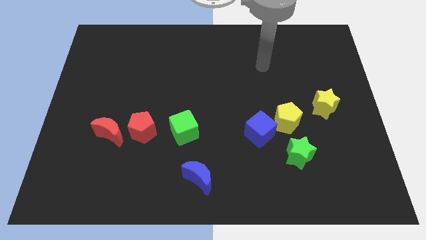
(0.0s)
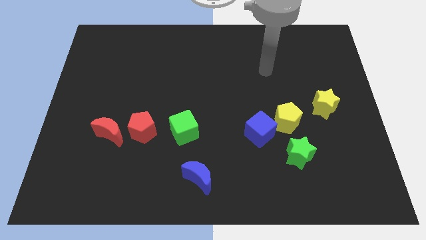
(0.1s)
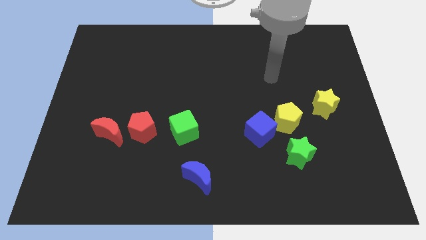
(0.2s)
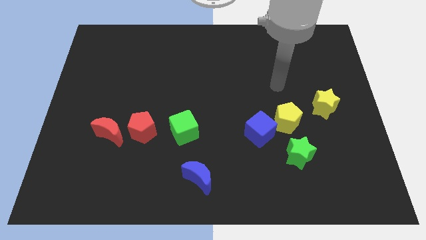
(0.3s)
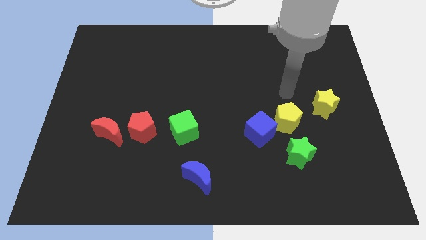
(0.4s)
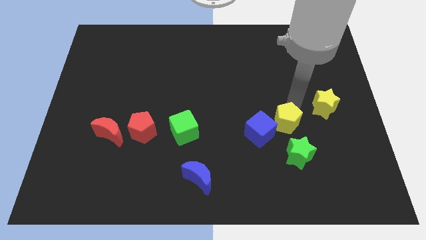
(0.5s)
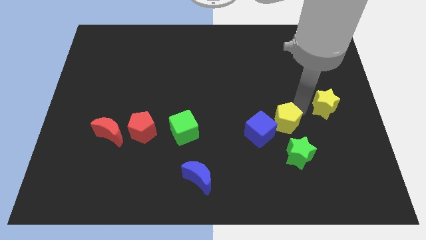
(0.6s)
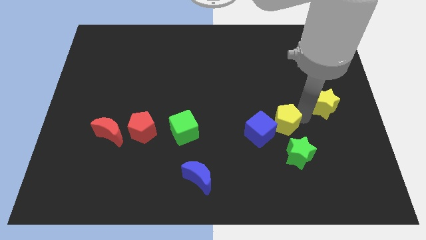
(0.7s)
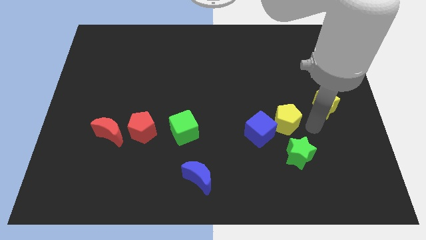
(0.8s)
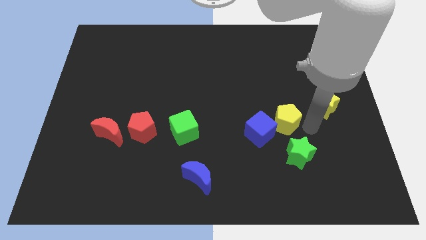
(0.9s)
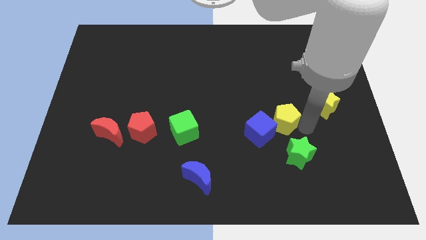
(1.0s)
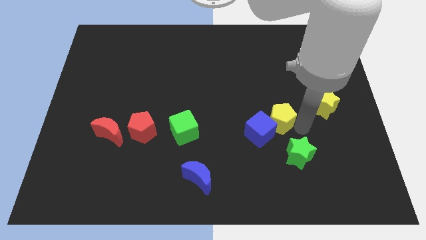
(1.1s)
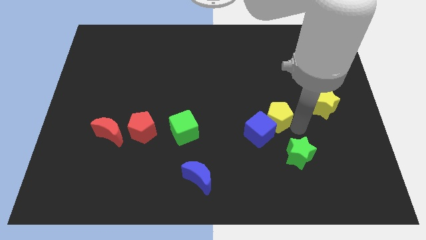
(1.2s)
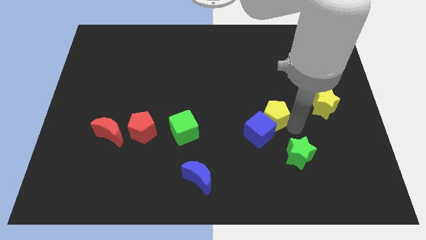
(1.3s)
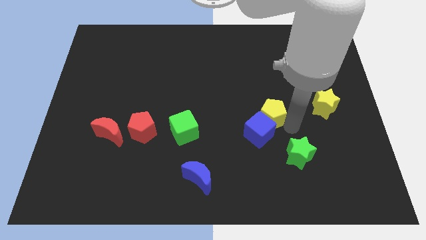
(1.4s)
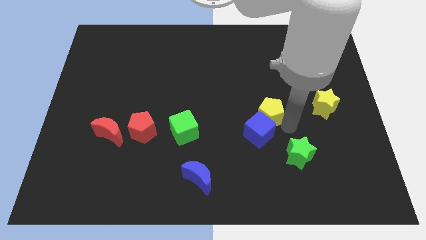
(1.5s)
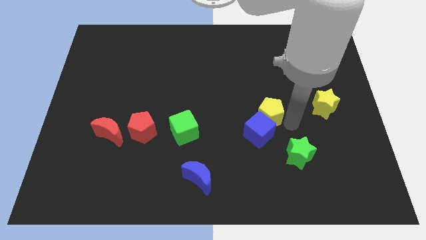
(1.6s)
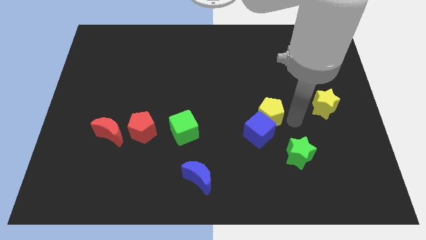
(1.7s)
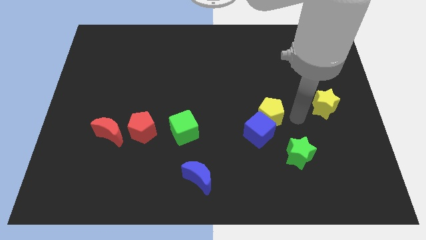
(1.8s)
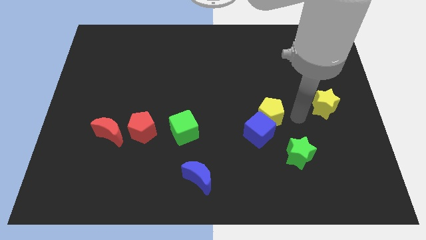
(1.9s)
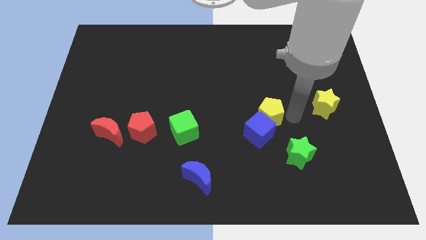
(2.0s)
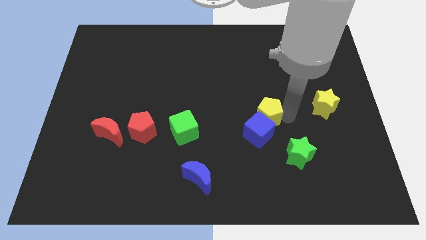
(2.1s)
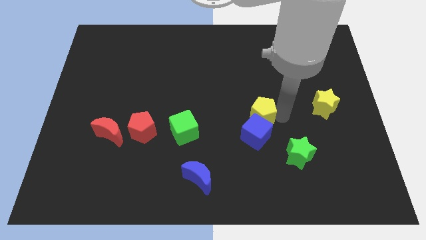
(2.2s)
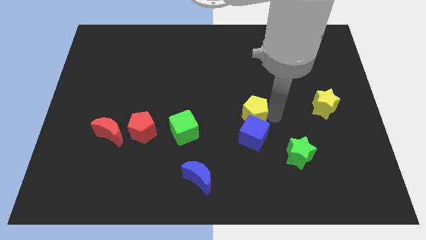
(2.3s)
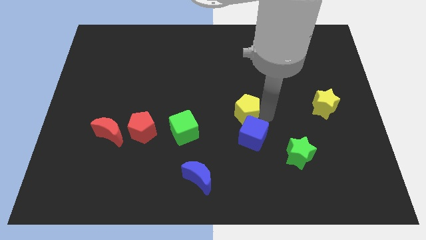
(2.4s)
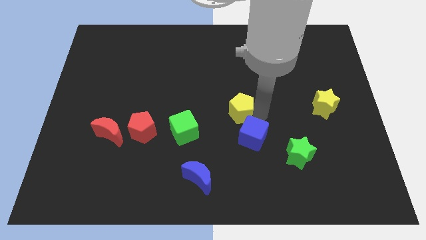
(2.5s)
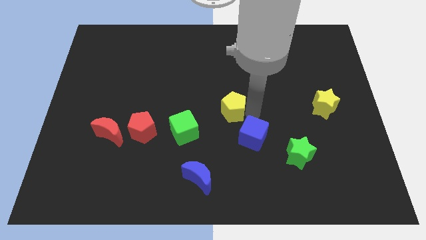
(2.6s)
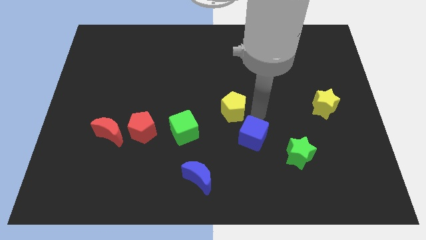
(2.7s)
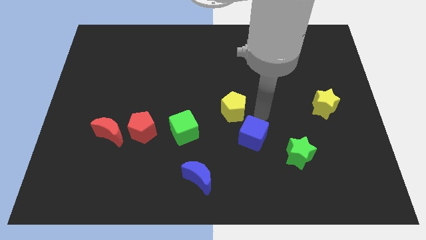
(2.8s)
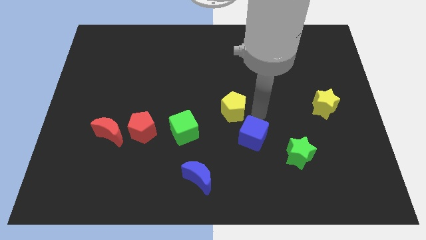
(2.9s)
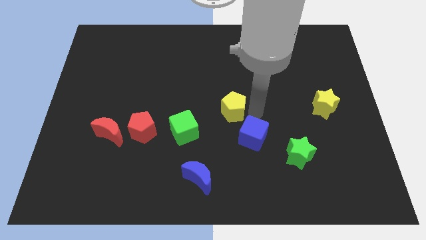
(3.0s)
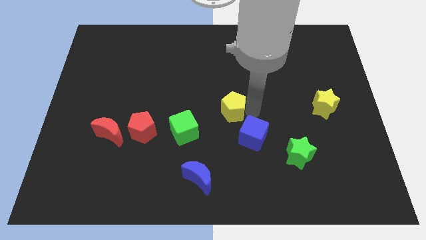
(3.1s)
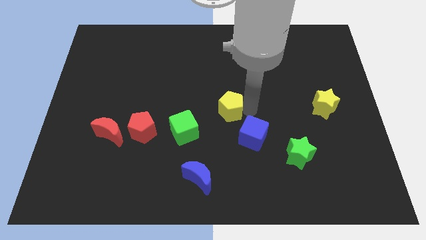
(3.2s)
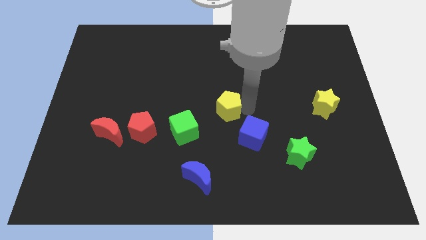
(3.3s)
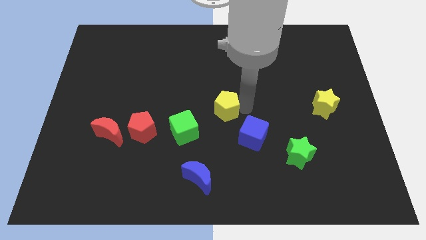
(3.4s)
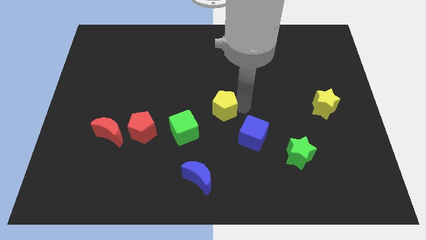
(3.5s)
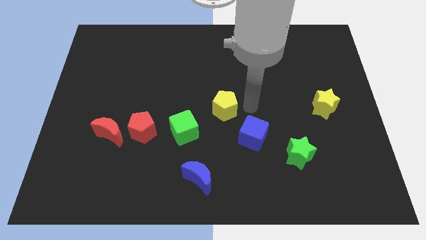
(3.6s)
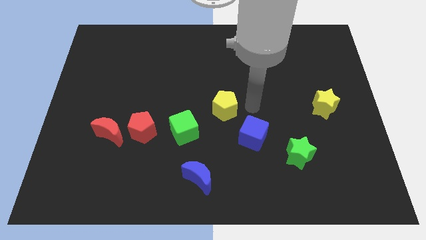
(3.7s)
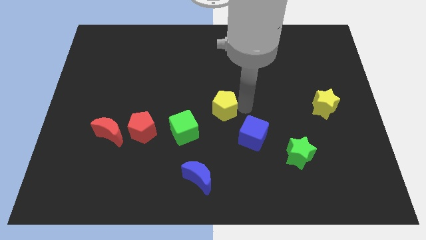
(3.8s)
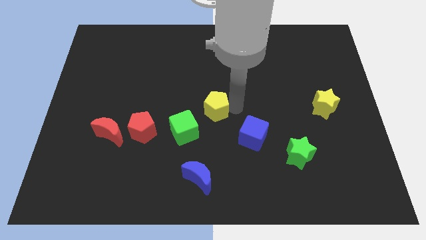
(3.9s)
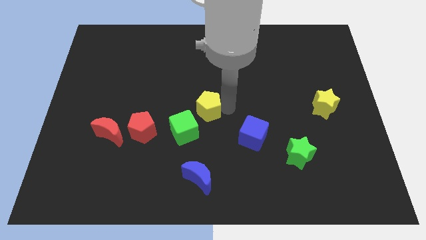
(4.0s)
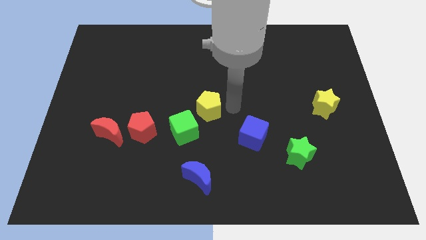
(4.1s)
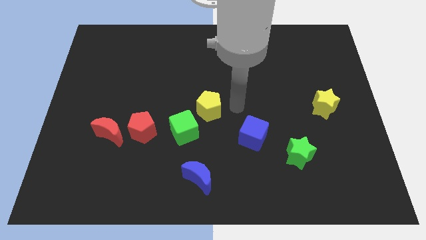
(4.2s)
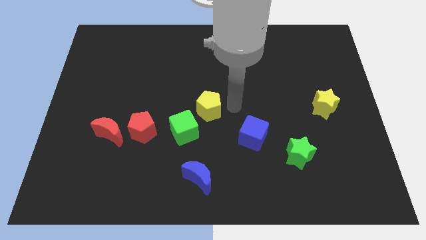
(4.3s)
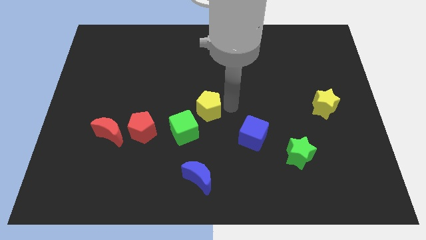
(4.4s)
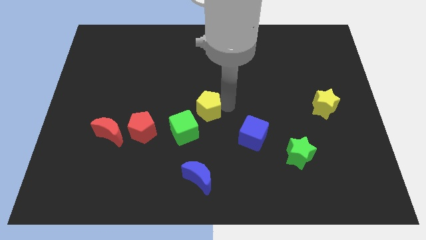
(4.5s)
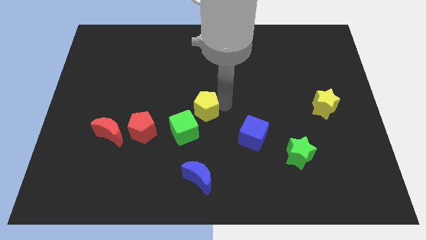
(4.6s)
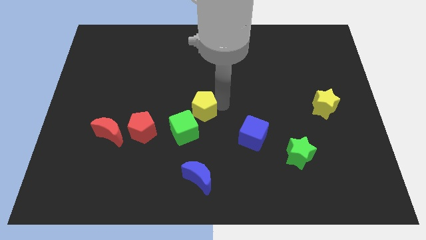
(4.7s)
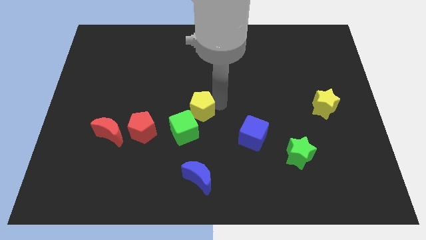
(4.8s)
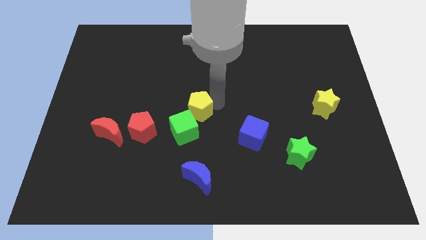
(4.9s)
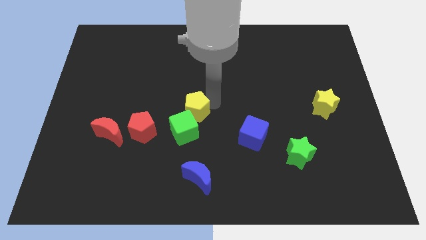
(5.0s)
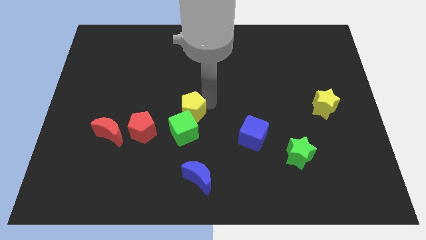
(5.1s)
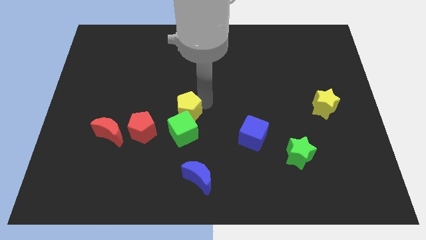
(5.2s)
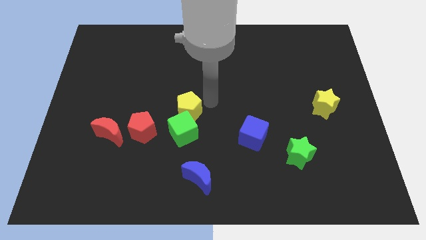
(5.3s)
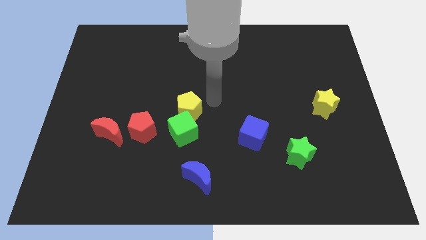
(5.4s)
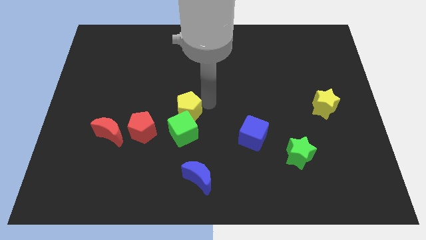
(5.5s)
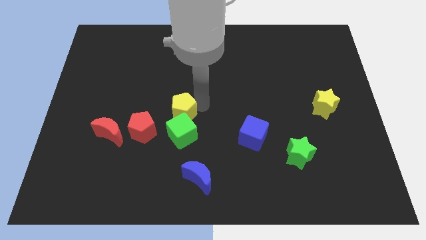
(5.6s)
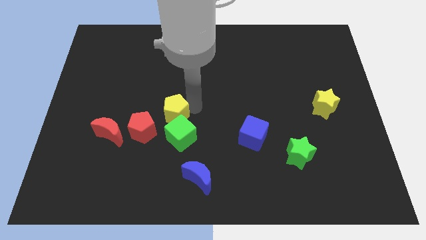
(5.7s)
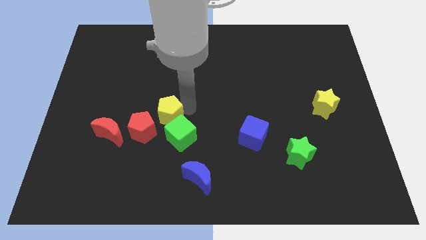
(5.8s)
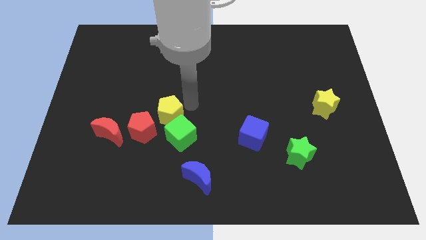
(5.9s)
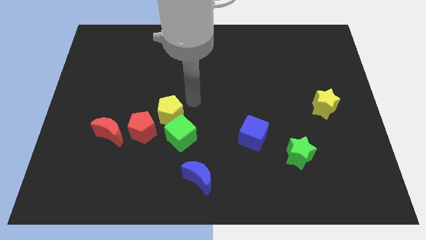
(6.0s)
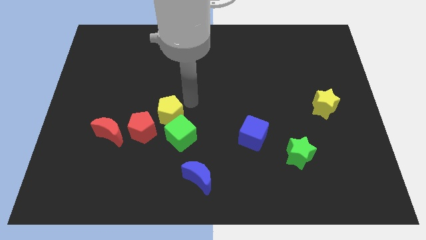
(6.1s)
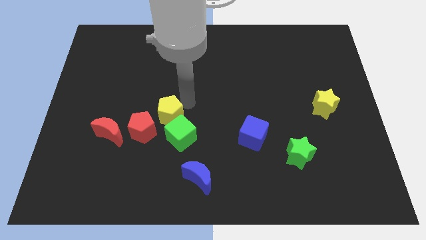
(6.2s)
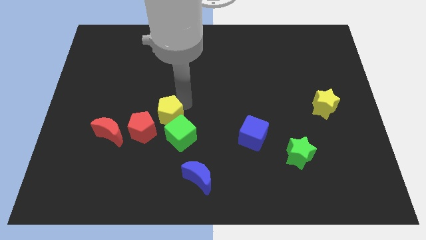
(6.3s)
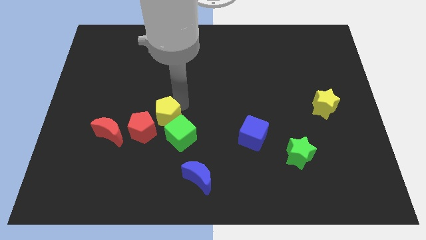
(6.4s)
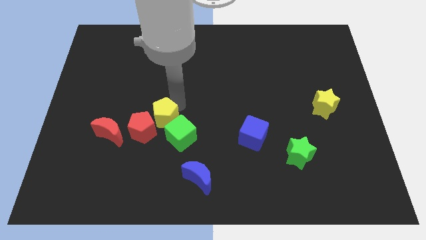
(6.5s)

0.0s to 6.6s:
push the yellow pentagon to the red pentagon

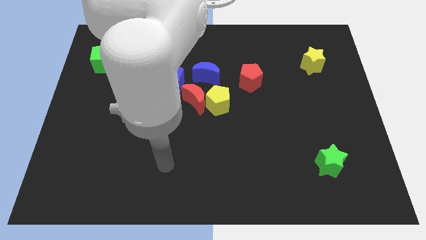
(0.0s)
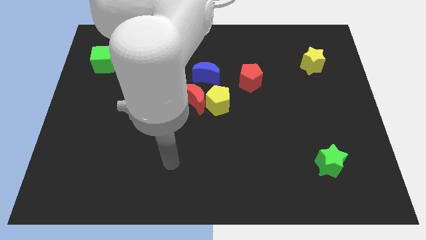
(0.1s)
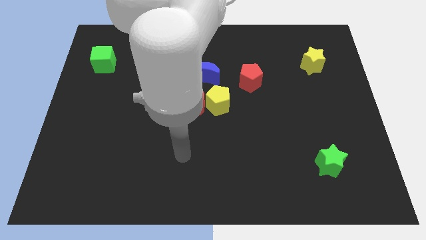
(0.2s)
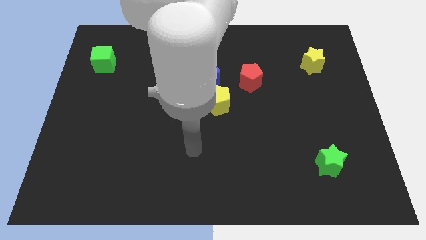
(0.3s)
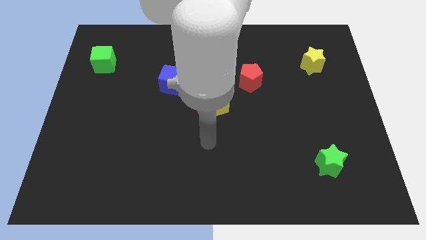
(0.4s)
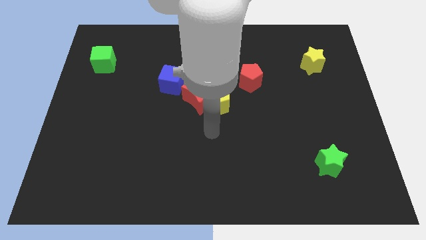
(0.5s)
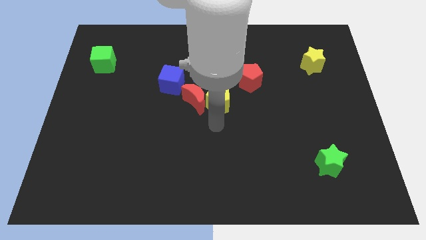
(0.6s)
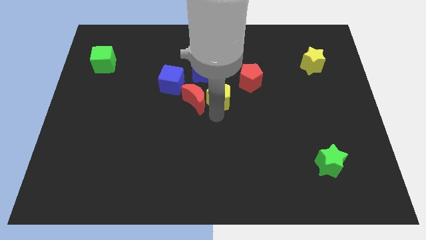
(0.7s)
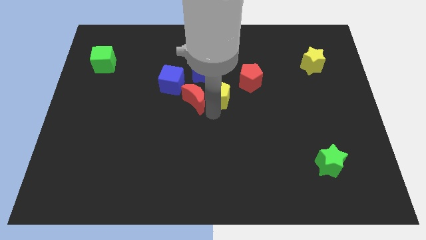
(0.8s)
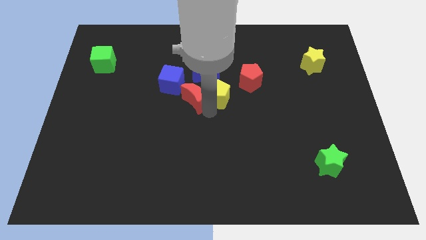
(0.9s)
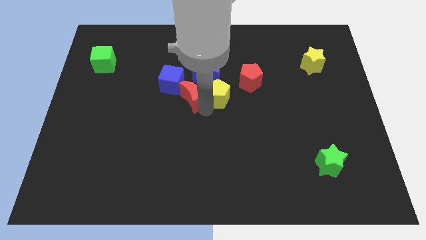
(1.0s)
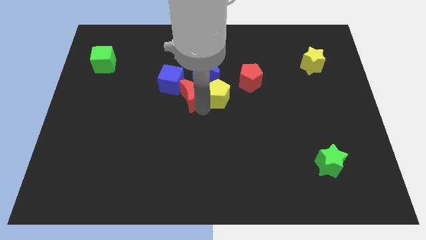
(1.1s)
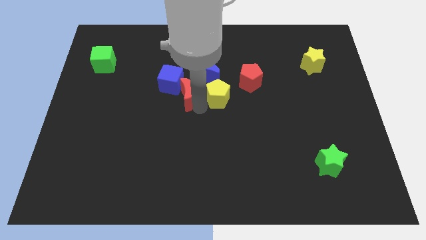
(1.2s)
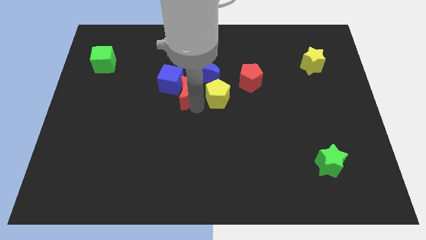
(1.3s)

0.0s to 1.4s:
move the red moon towards the blue cube
